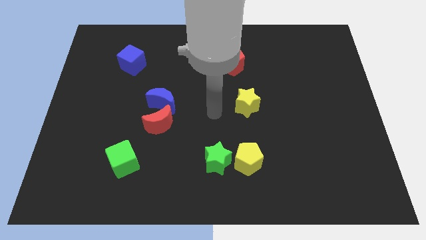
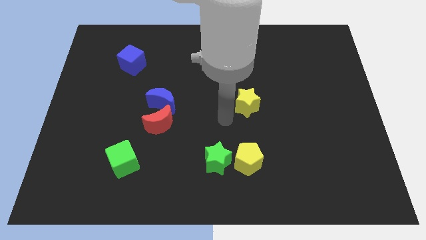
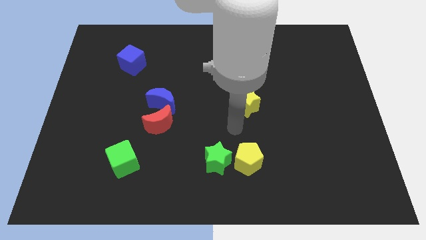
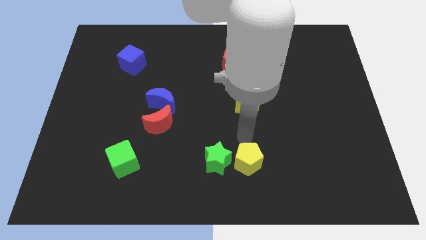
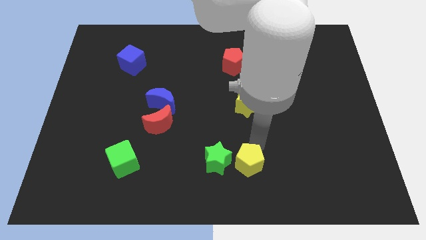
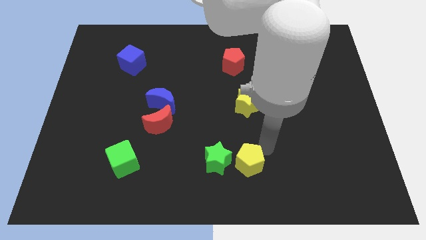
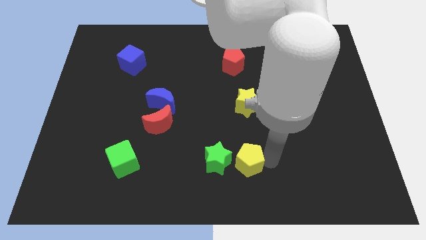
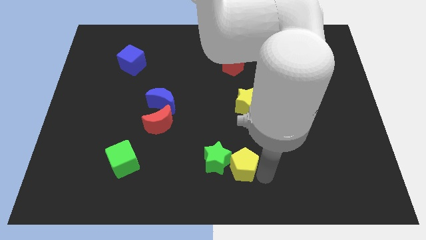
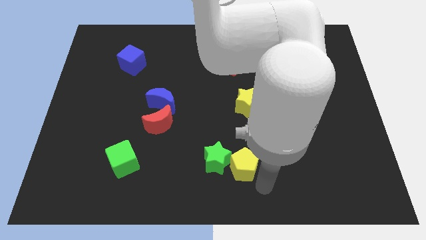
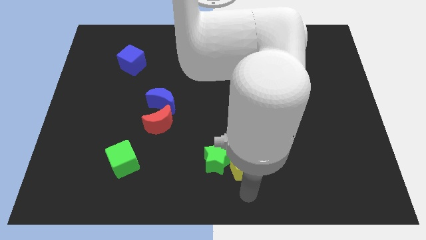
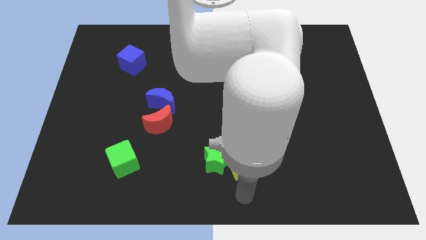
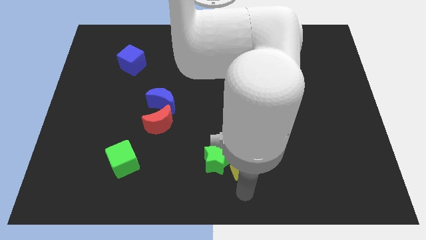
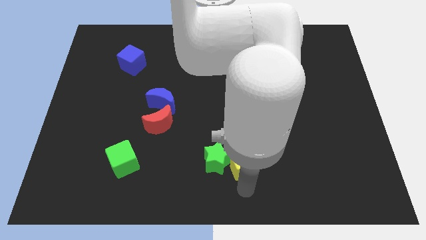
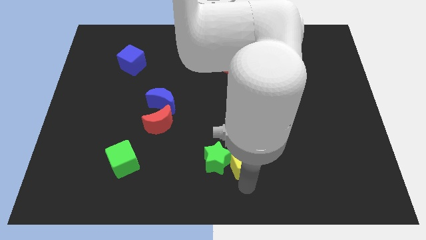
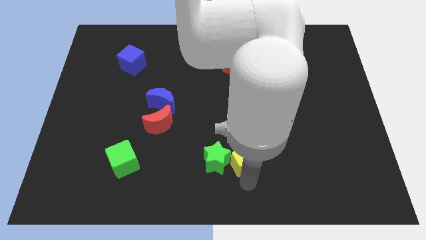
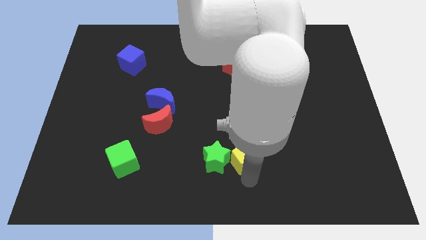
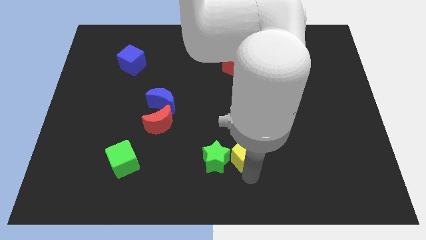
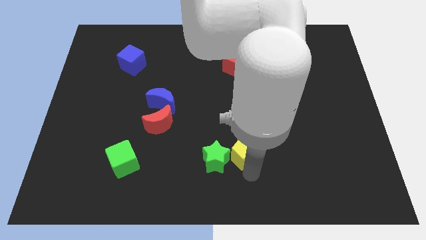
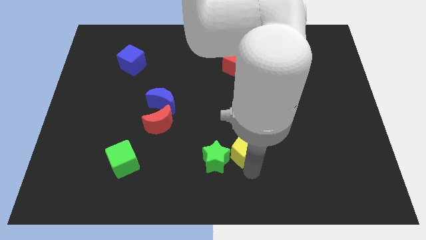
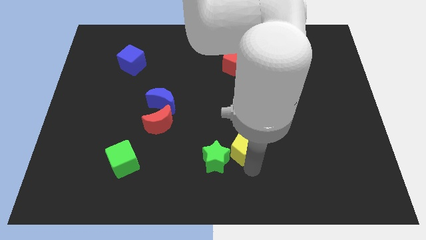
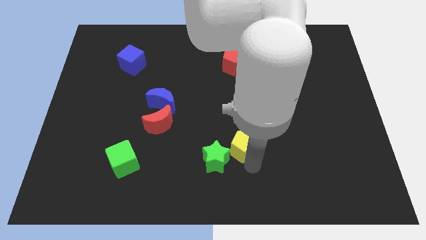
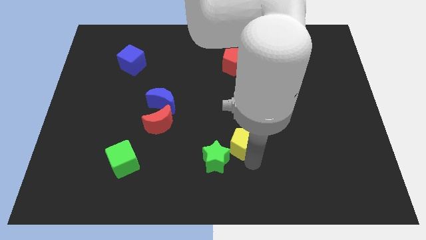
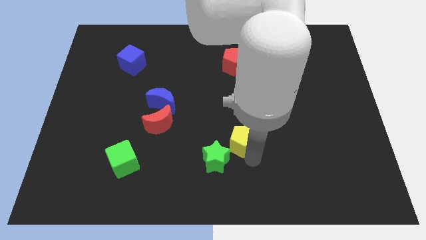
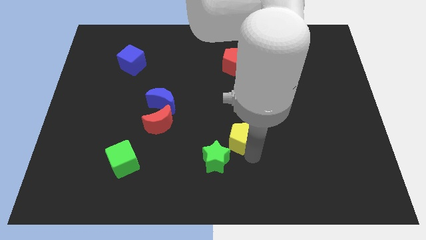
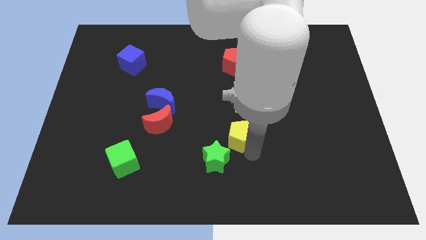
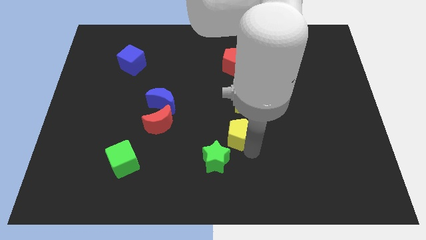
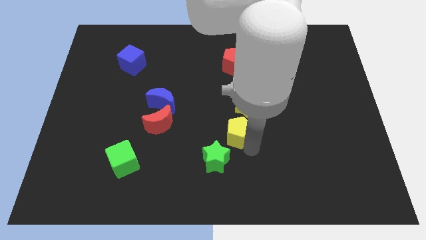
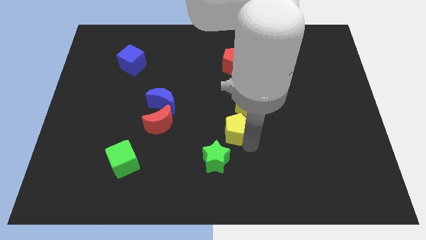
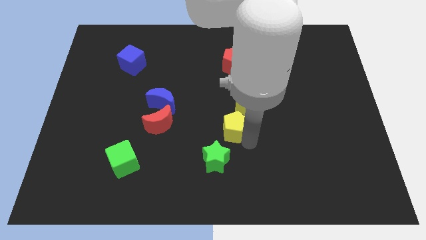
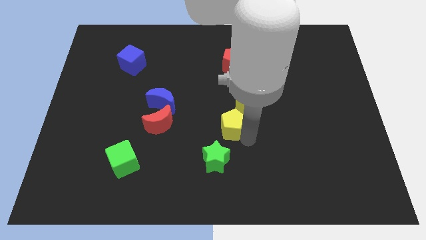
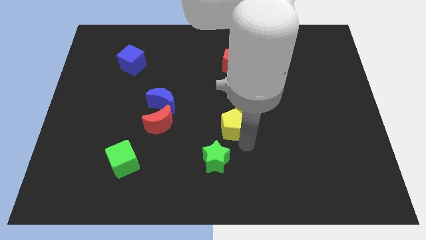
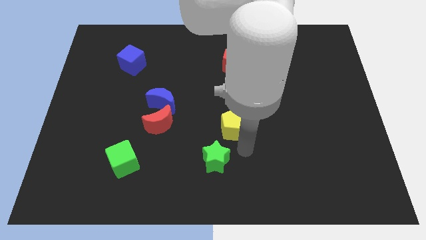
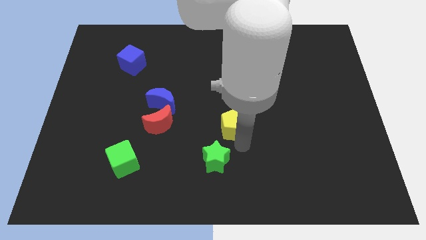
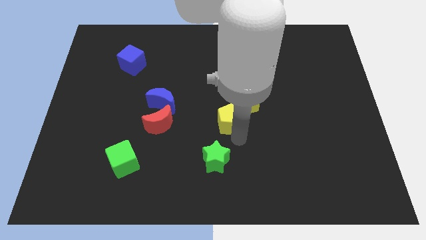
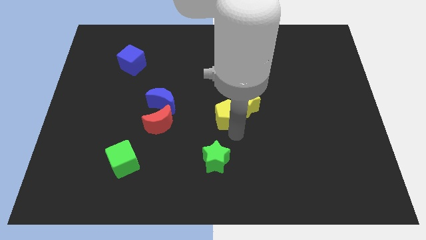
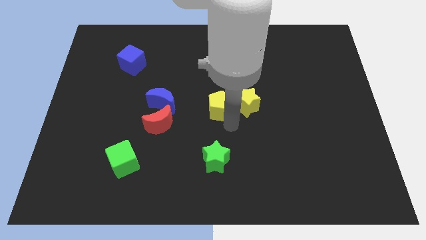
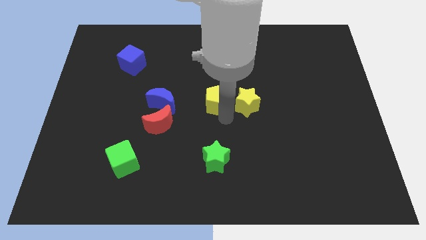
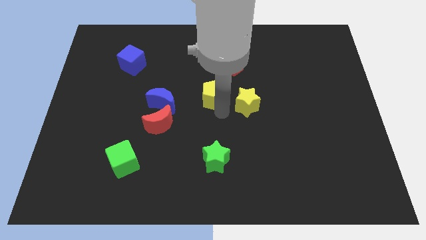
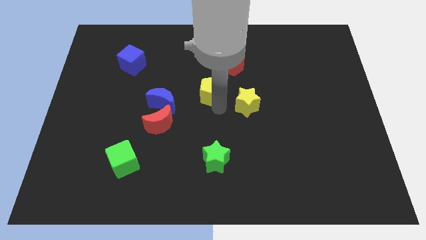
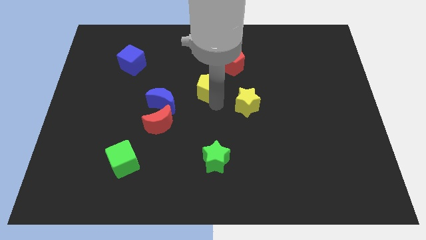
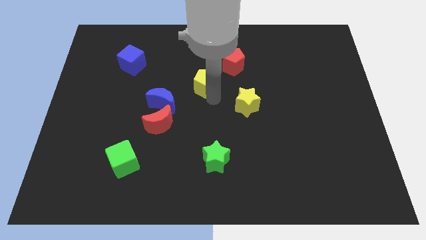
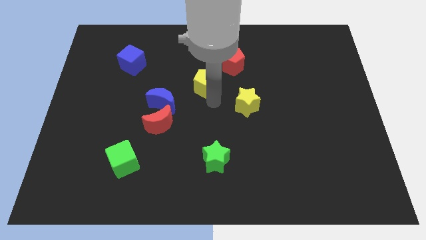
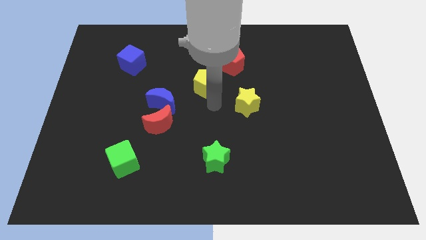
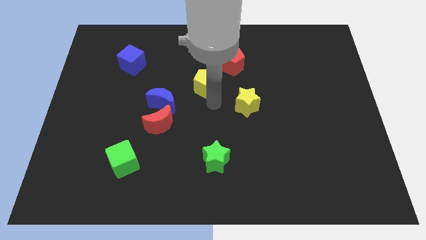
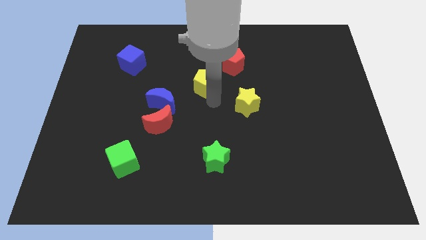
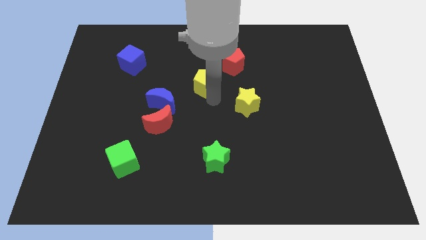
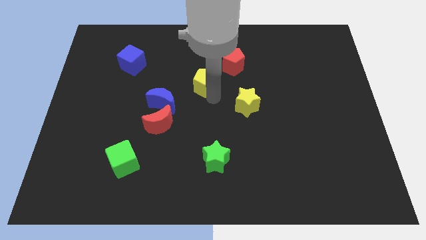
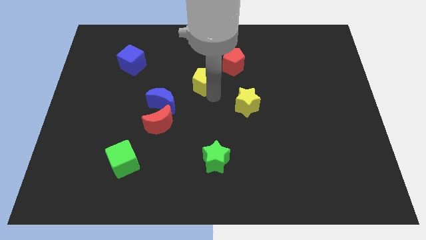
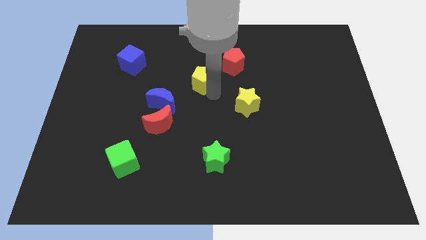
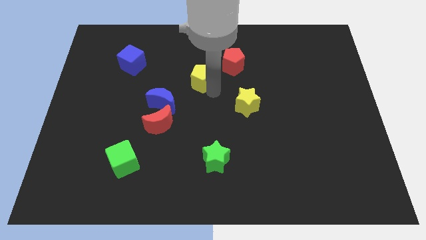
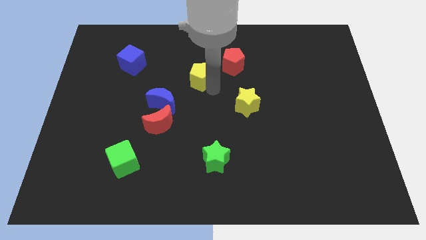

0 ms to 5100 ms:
slide the yellow pentagon to the left of the red pentagon

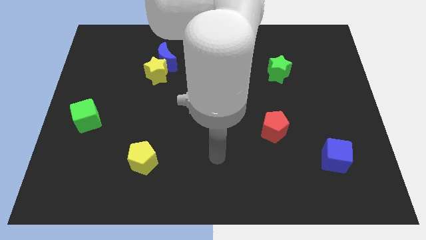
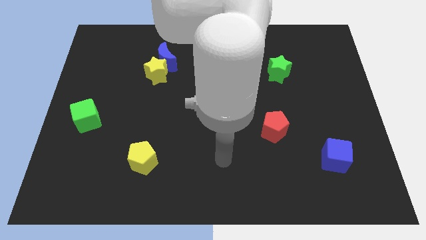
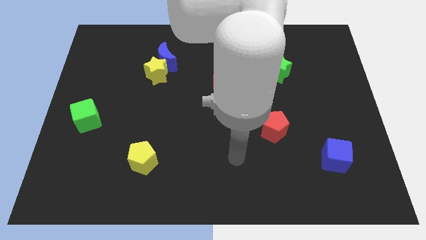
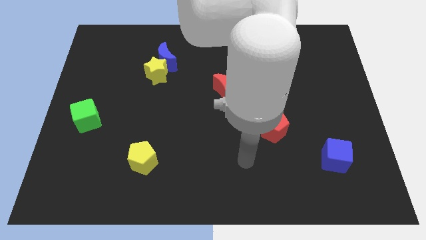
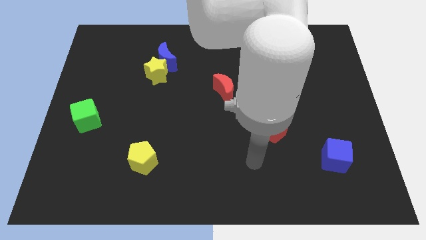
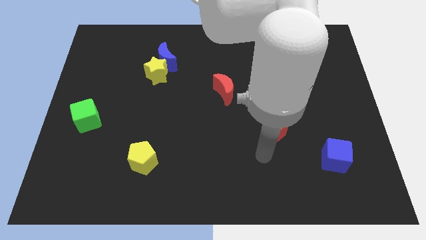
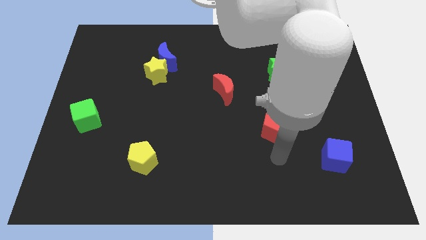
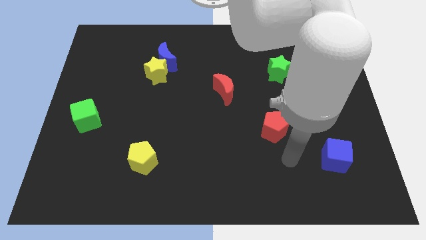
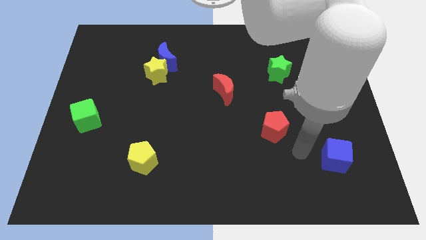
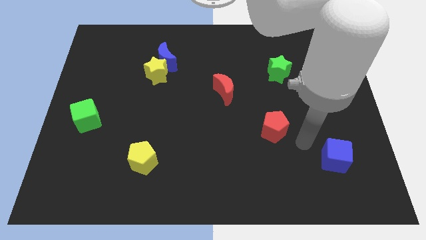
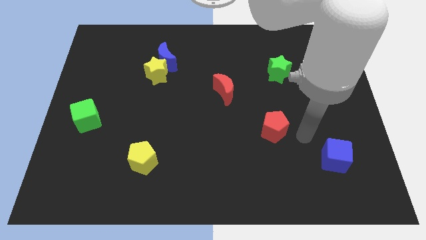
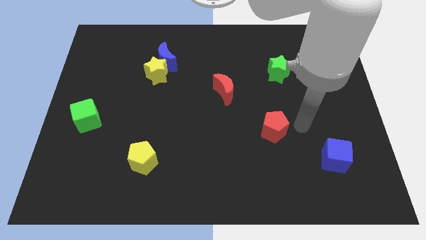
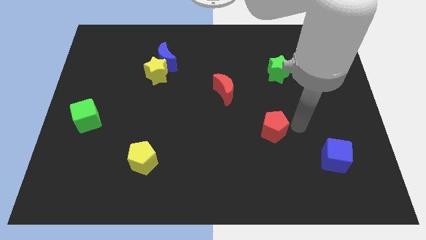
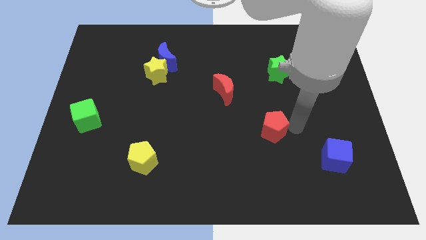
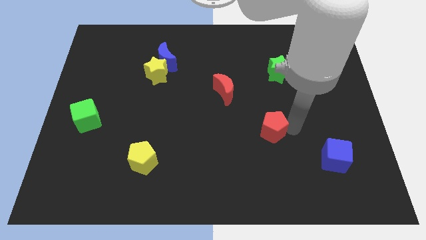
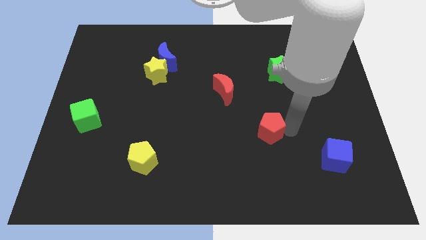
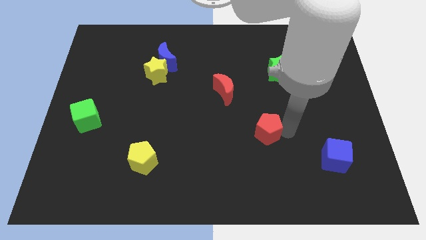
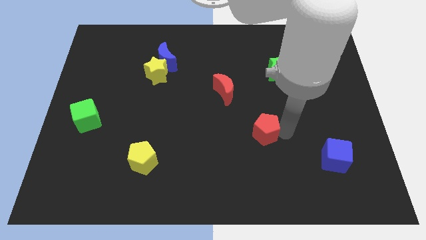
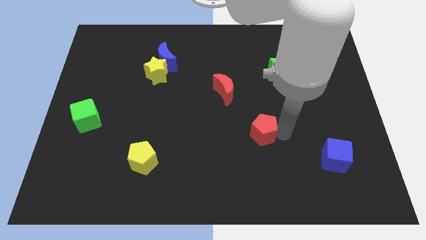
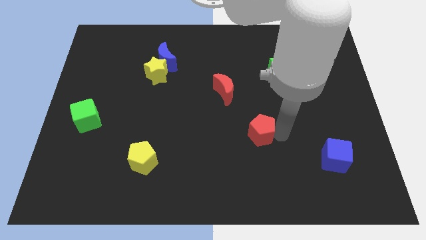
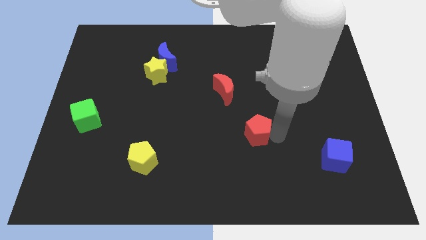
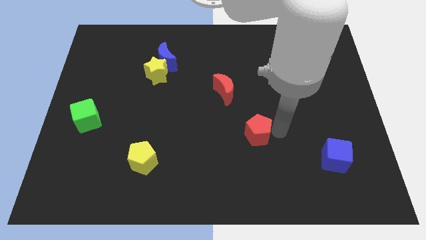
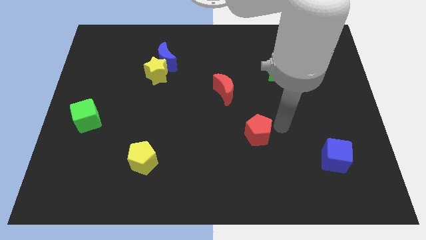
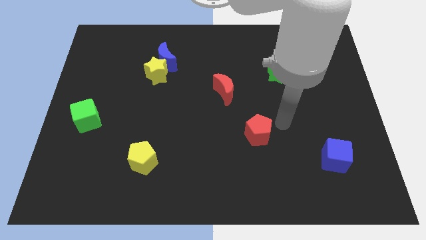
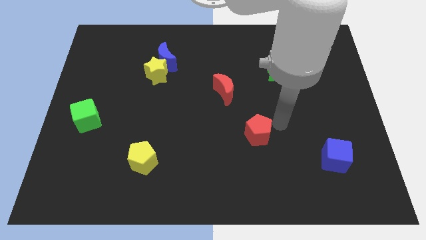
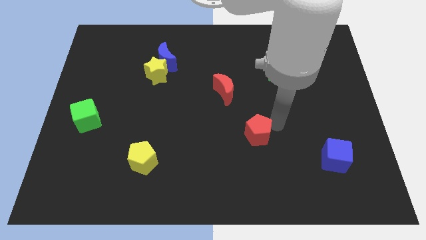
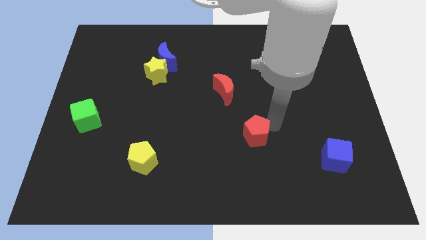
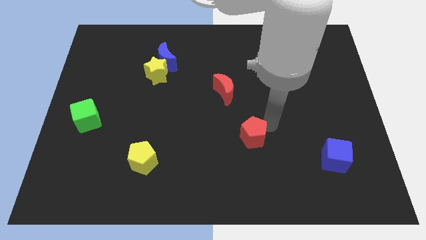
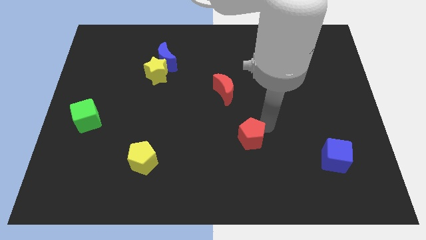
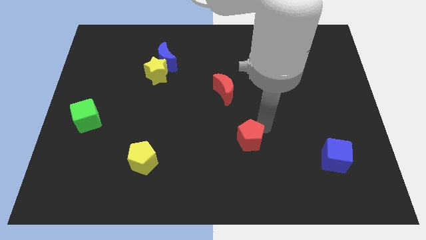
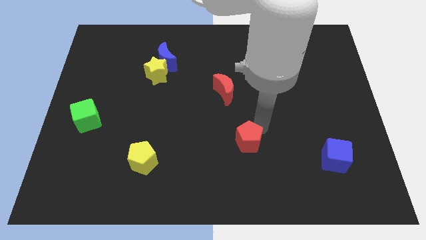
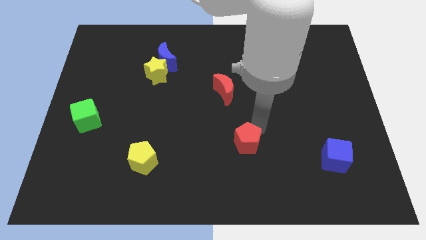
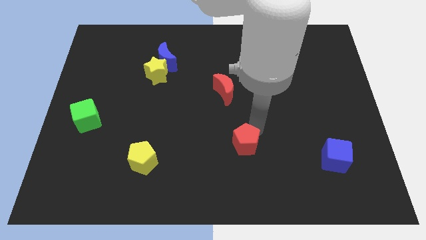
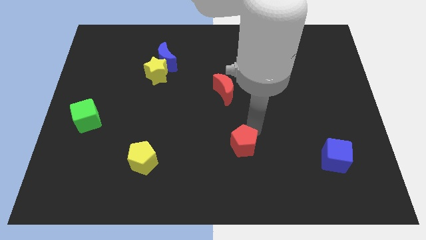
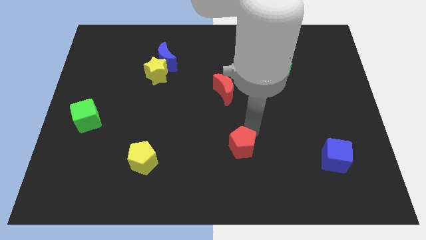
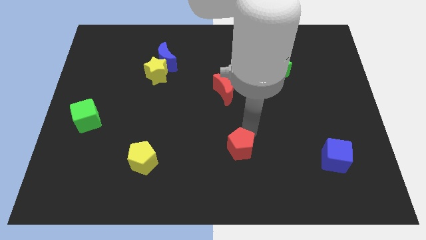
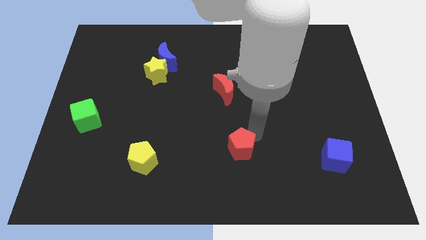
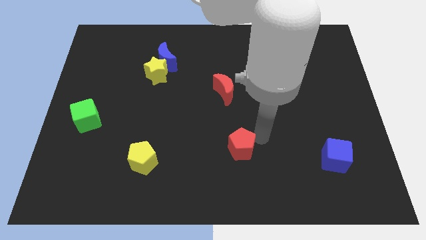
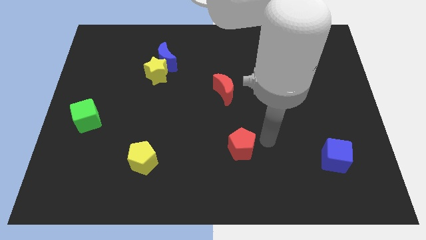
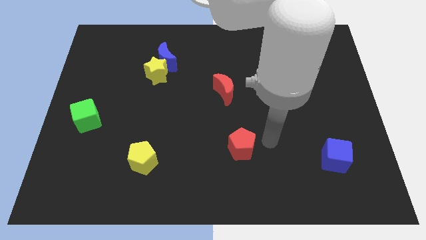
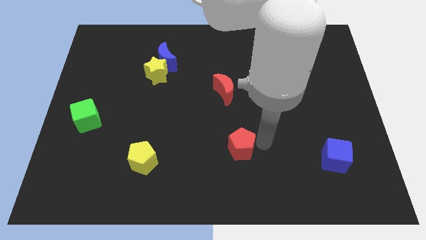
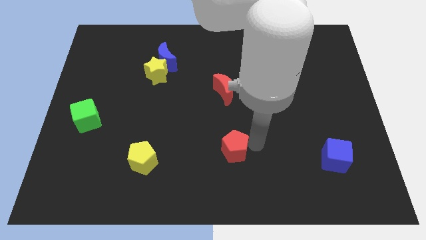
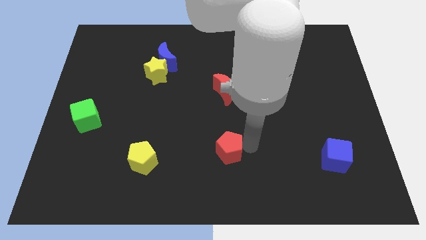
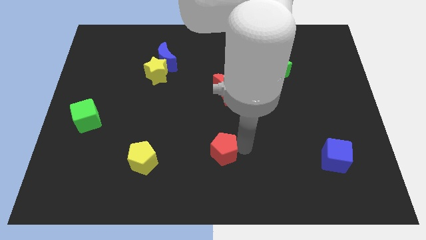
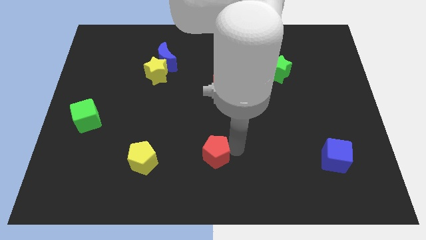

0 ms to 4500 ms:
slide the red pentagon to the right of the yellow pentagon
